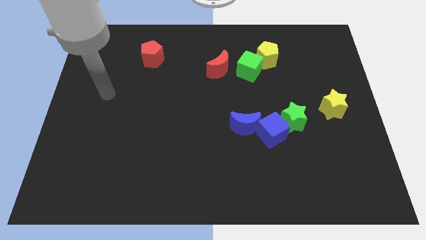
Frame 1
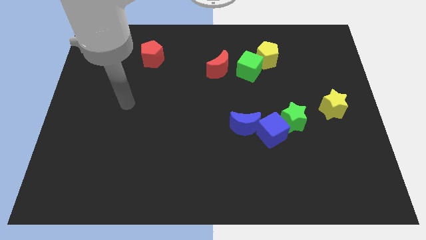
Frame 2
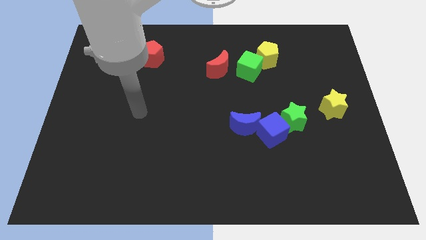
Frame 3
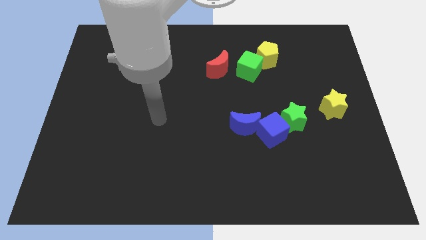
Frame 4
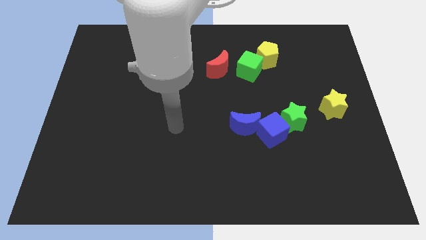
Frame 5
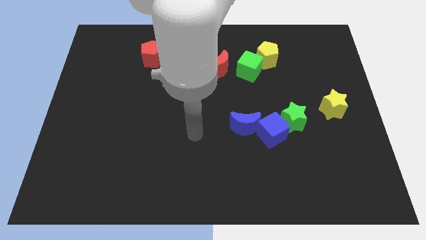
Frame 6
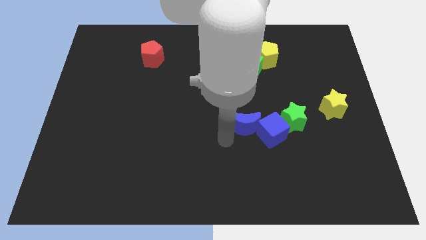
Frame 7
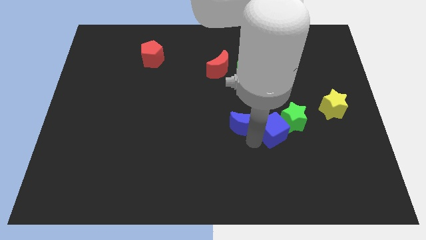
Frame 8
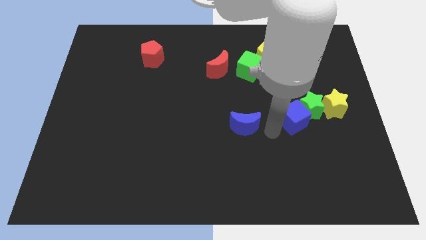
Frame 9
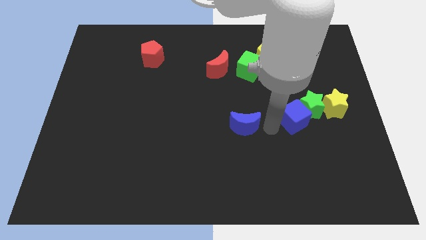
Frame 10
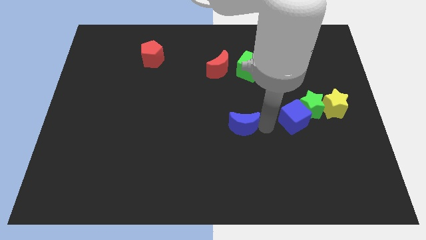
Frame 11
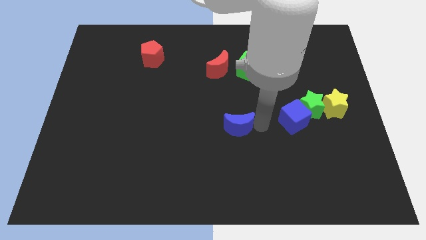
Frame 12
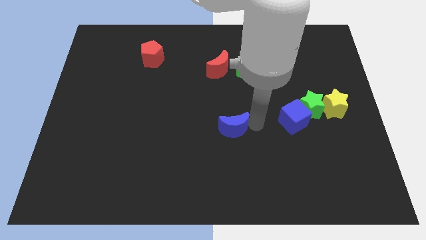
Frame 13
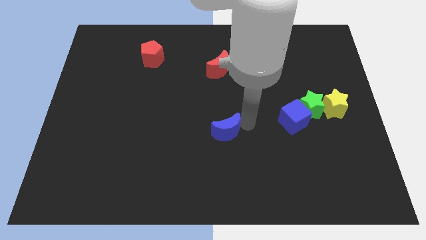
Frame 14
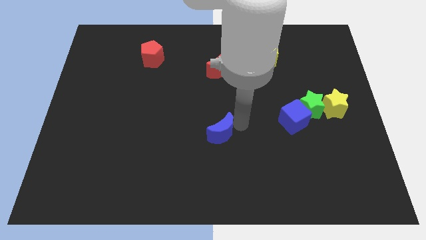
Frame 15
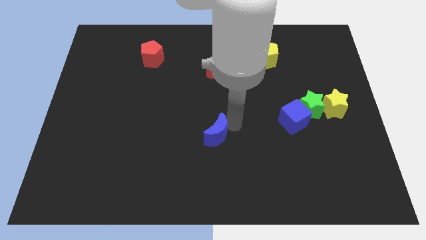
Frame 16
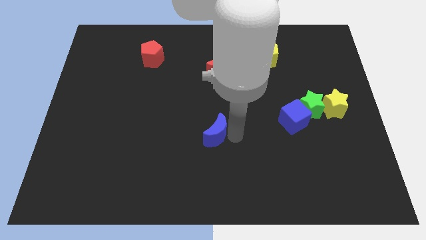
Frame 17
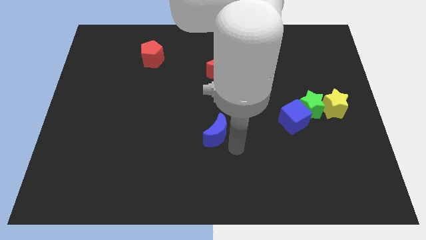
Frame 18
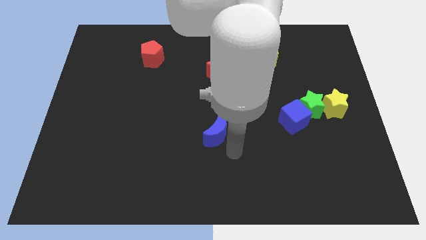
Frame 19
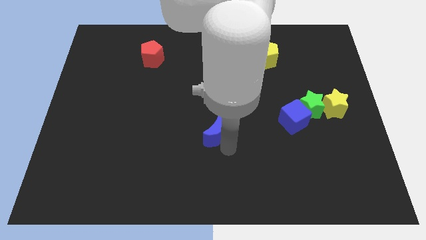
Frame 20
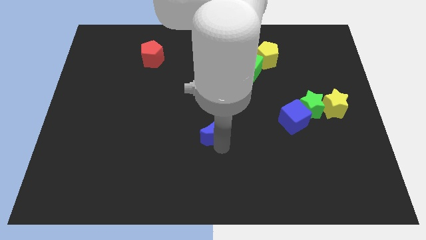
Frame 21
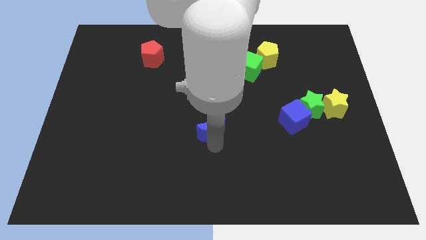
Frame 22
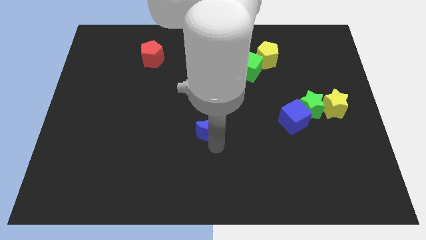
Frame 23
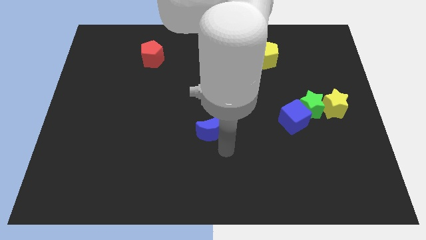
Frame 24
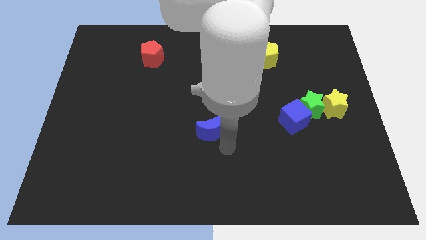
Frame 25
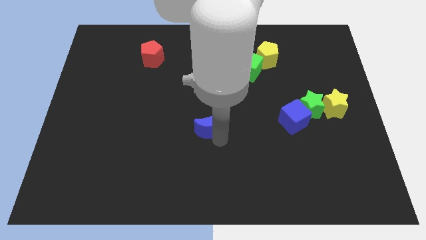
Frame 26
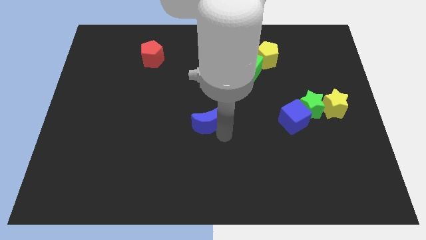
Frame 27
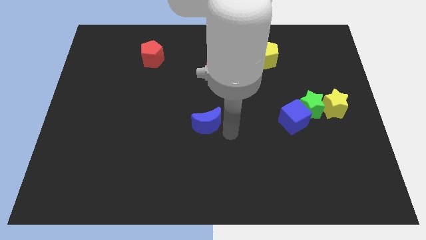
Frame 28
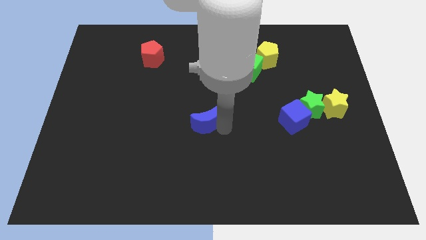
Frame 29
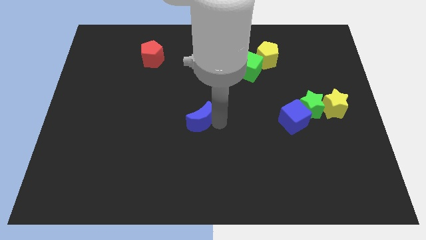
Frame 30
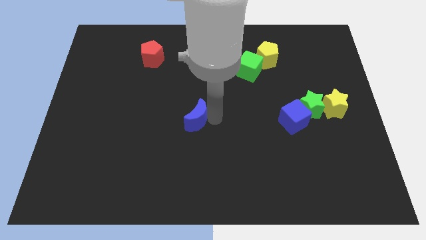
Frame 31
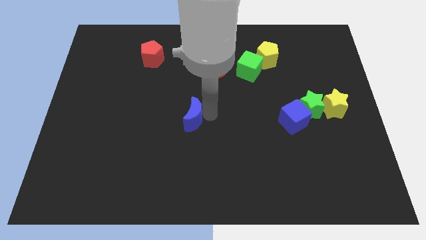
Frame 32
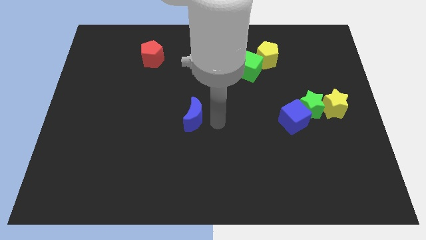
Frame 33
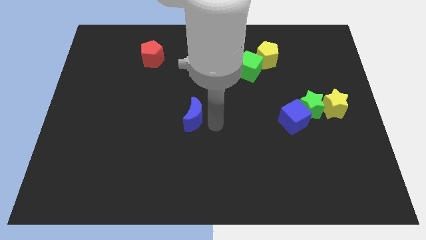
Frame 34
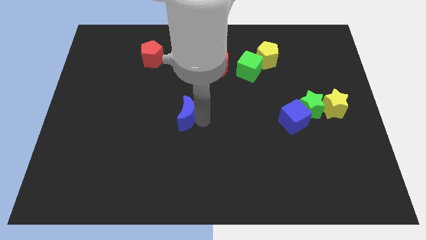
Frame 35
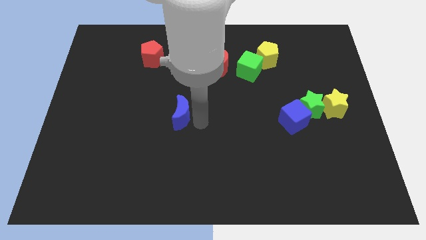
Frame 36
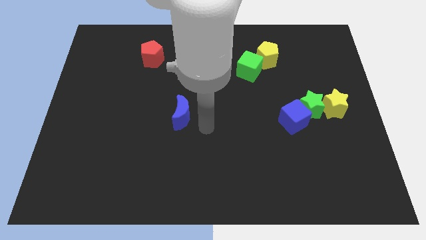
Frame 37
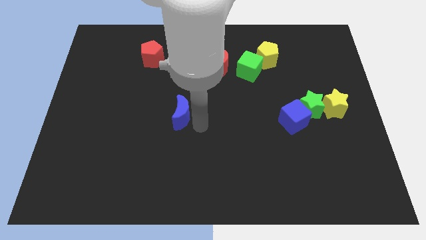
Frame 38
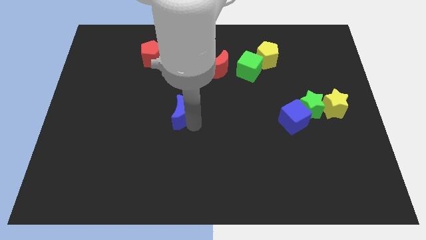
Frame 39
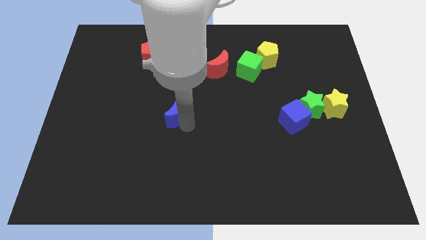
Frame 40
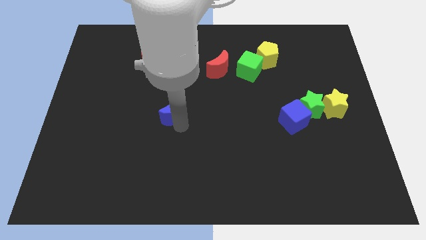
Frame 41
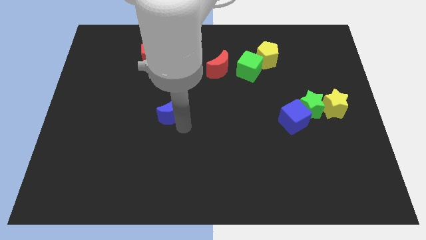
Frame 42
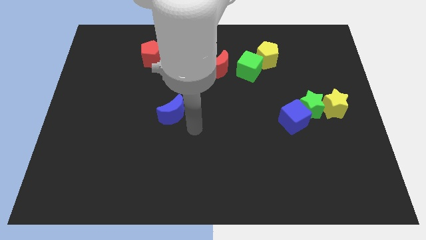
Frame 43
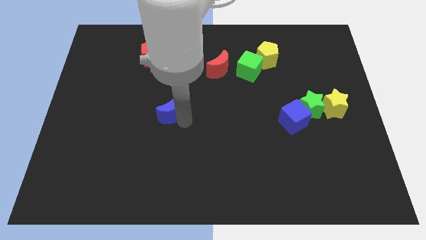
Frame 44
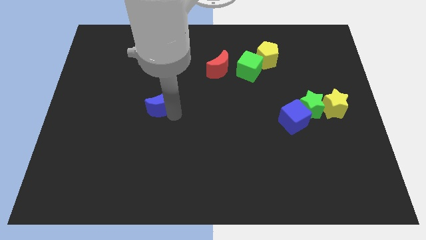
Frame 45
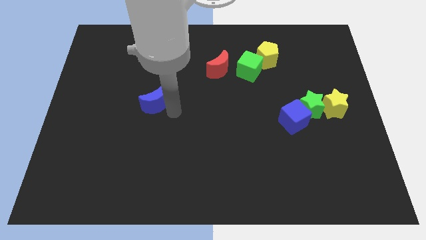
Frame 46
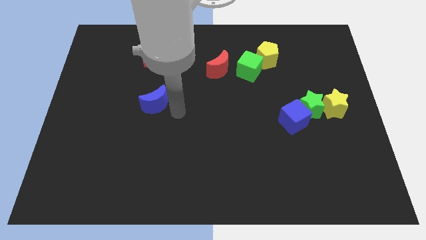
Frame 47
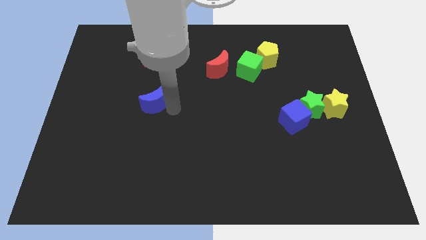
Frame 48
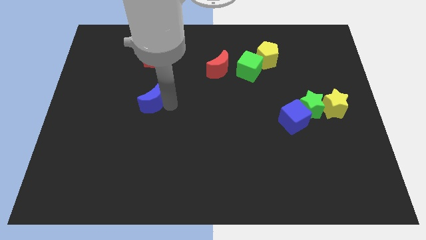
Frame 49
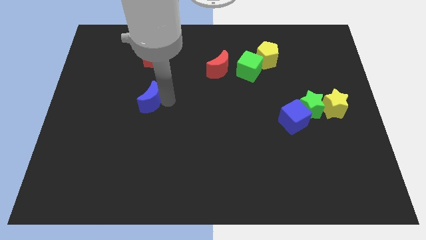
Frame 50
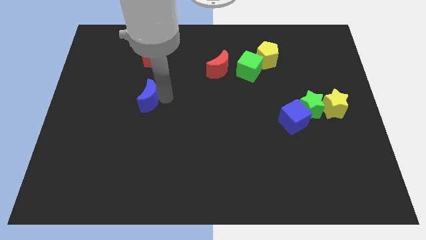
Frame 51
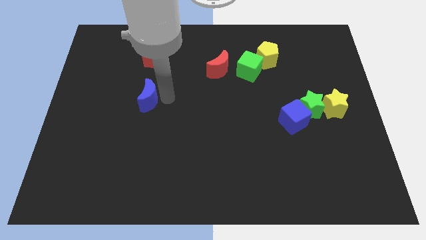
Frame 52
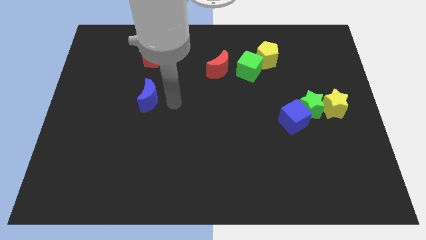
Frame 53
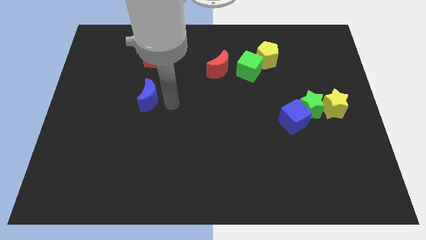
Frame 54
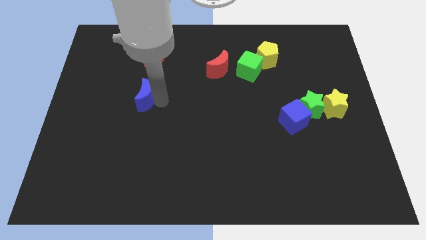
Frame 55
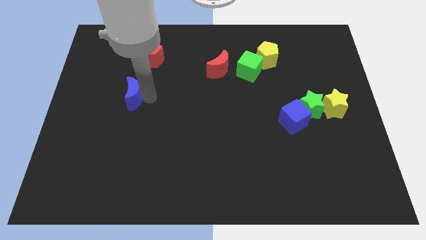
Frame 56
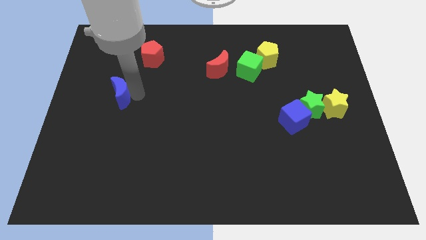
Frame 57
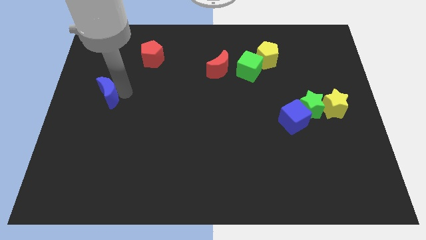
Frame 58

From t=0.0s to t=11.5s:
slide the blue moon to the left side of the board
